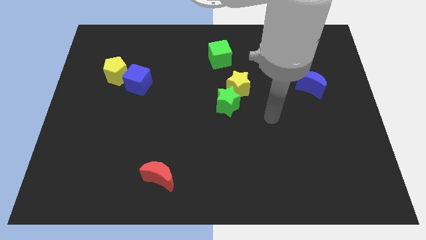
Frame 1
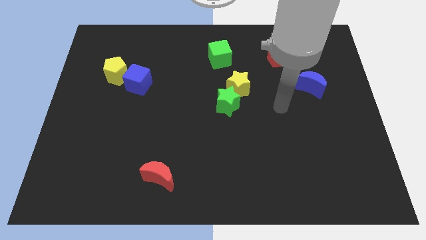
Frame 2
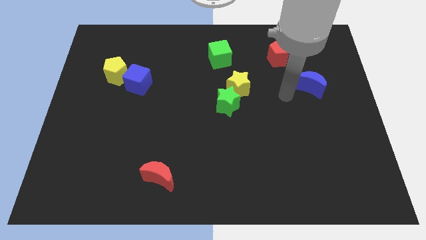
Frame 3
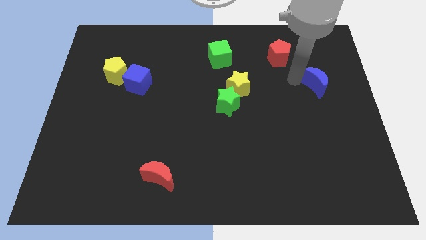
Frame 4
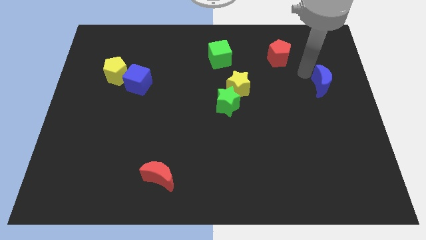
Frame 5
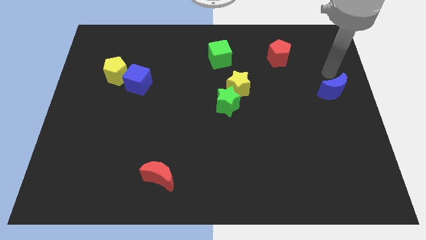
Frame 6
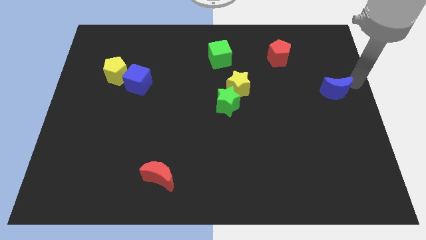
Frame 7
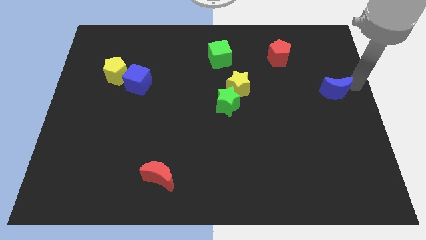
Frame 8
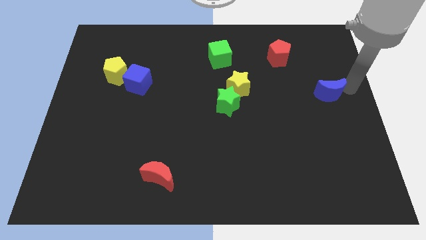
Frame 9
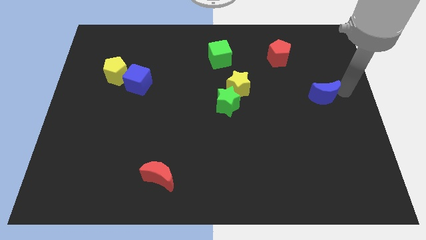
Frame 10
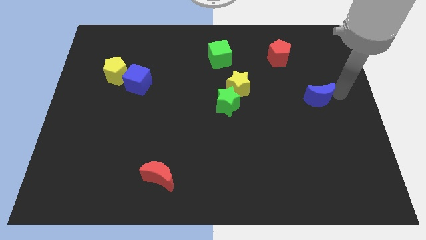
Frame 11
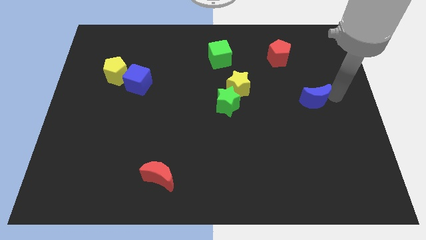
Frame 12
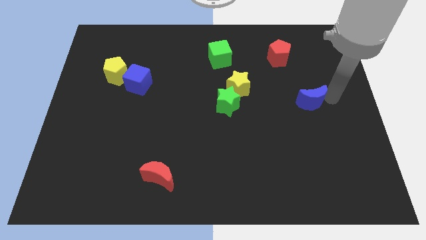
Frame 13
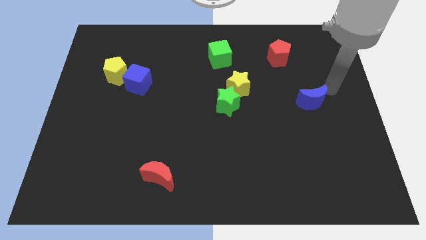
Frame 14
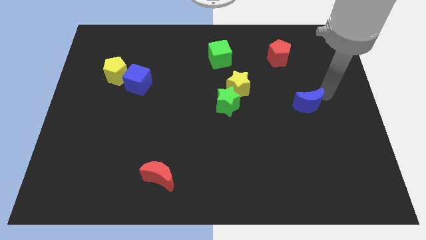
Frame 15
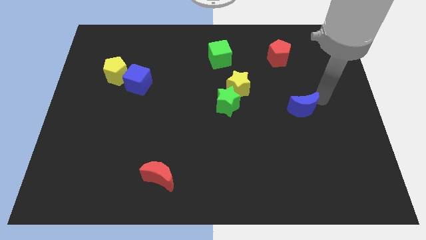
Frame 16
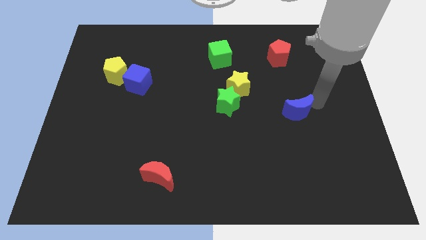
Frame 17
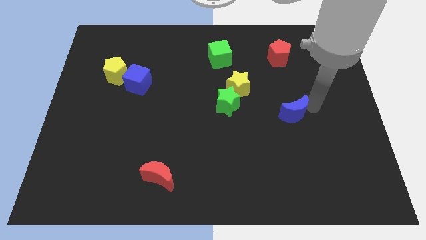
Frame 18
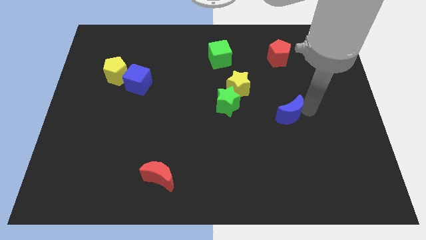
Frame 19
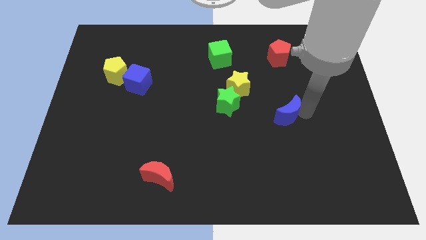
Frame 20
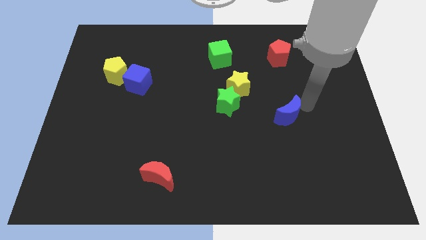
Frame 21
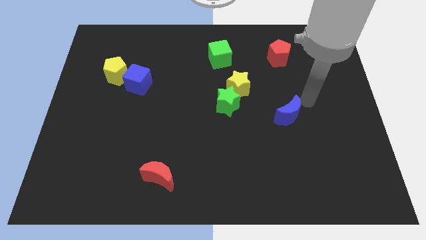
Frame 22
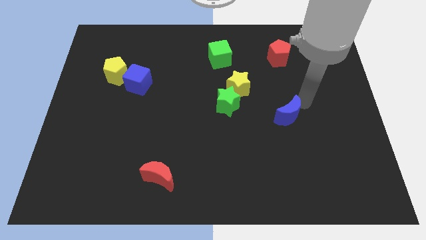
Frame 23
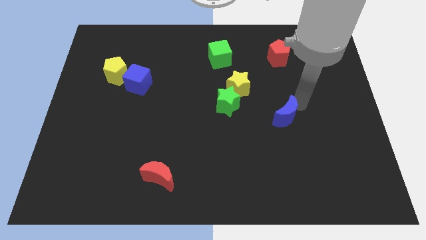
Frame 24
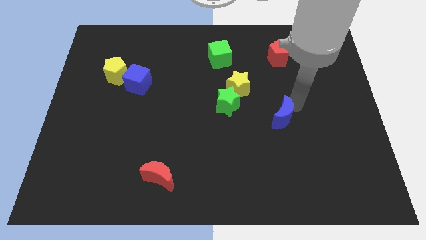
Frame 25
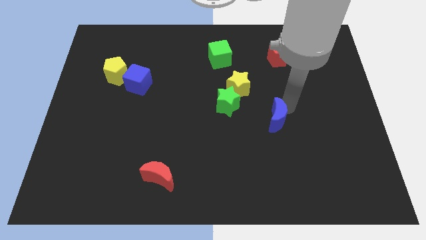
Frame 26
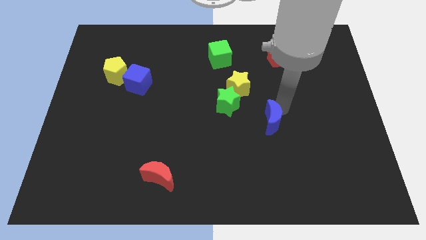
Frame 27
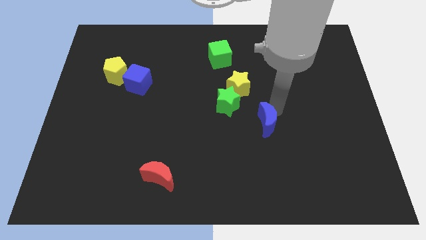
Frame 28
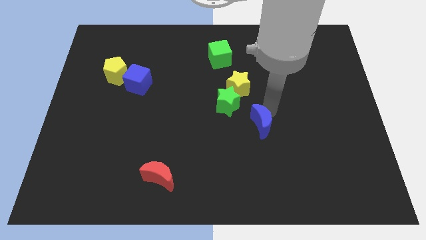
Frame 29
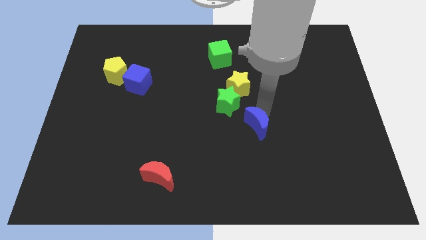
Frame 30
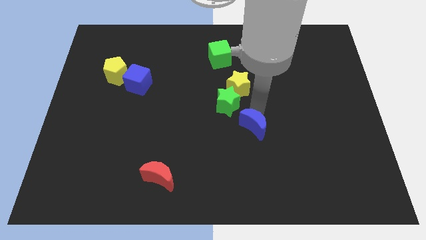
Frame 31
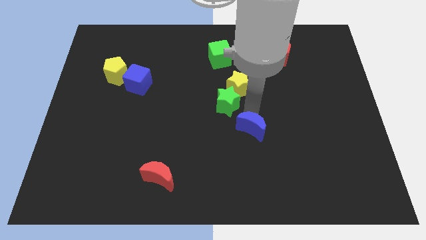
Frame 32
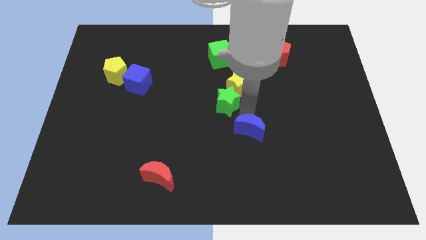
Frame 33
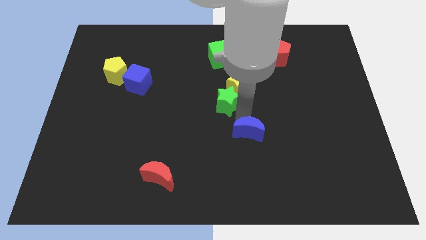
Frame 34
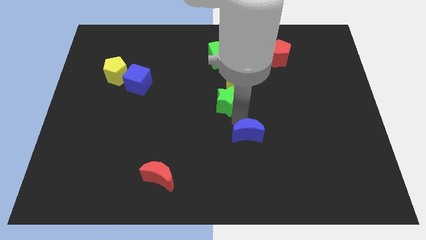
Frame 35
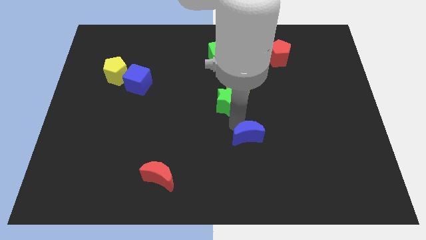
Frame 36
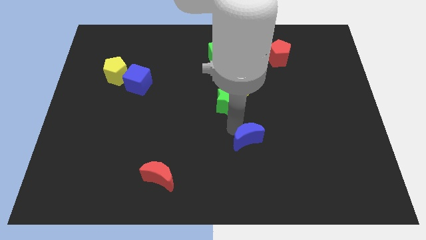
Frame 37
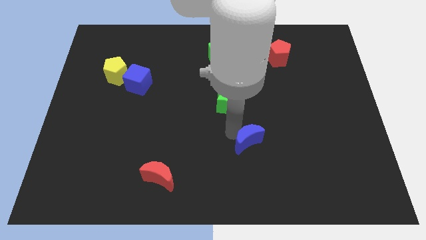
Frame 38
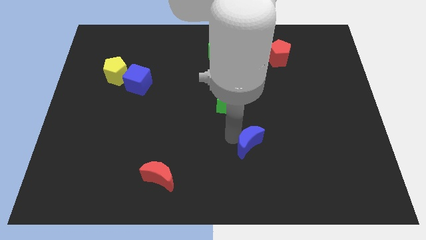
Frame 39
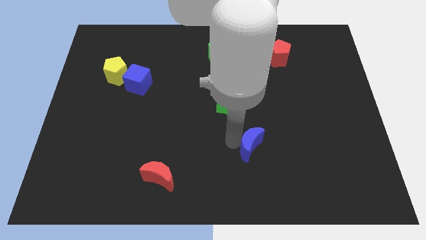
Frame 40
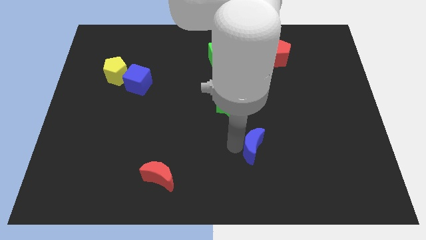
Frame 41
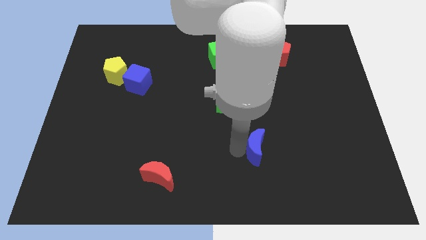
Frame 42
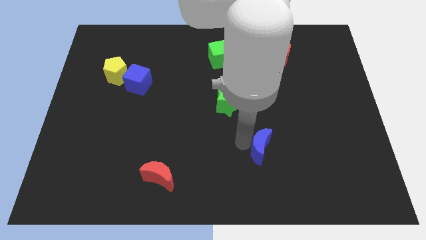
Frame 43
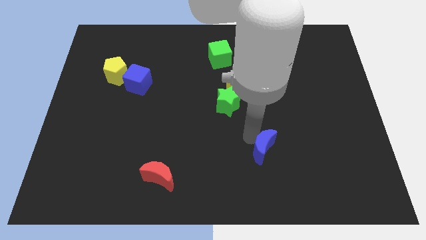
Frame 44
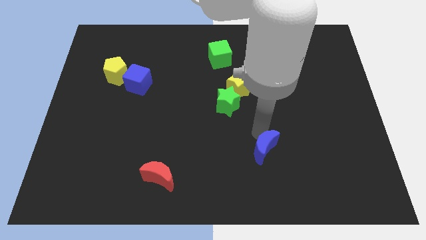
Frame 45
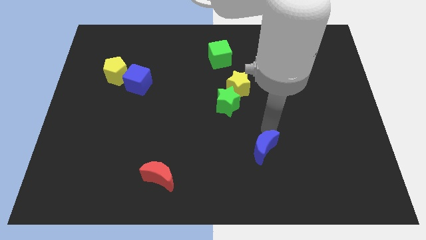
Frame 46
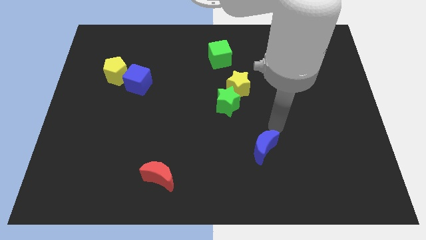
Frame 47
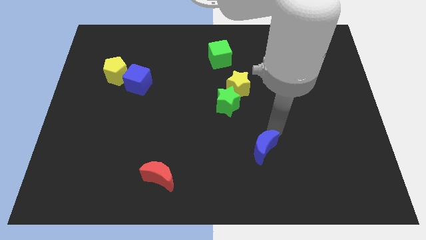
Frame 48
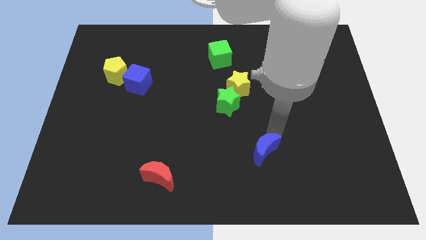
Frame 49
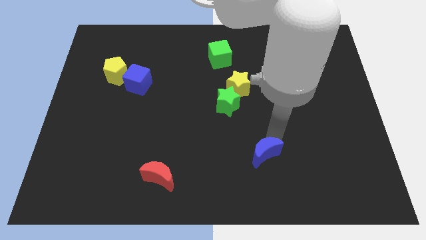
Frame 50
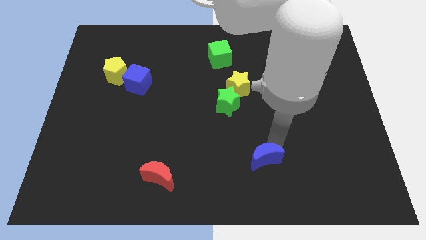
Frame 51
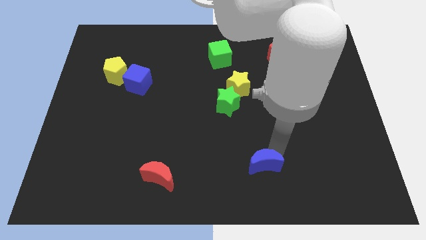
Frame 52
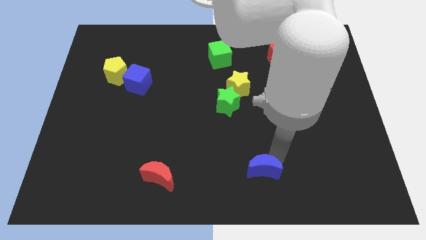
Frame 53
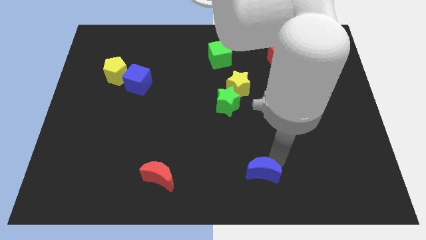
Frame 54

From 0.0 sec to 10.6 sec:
move the blue moon to the bottom side
